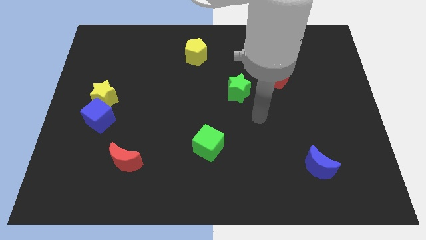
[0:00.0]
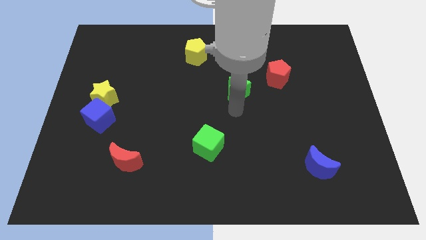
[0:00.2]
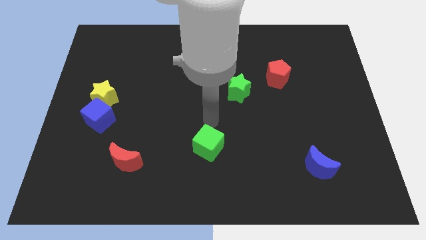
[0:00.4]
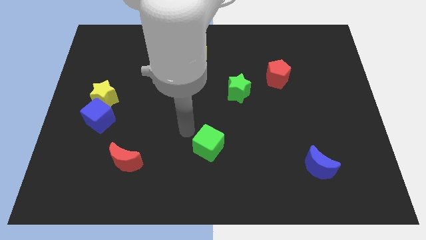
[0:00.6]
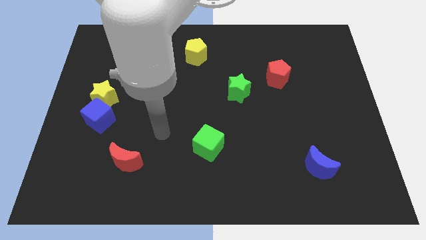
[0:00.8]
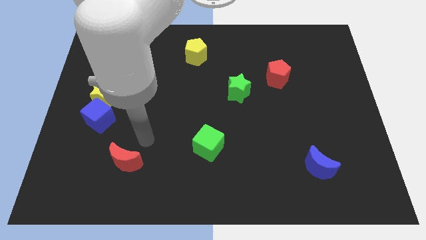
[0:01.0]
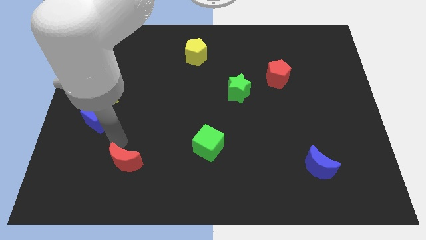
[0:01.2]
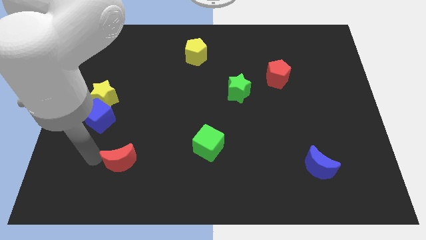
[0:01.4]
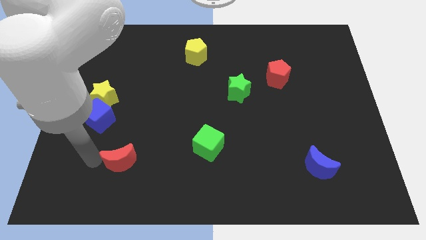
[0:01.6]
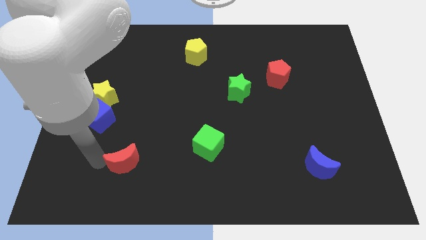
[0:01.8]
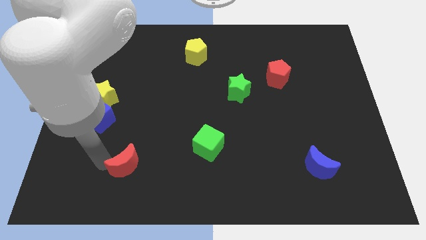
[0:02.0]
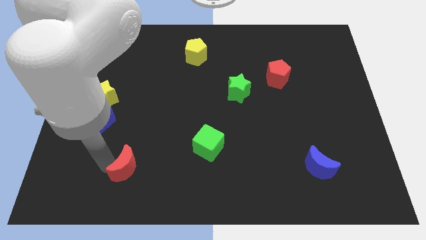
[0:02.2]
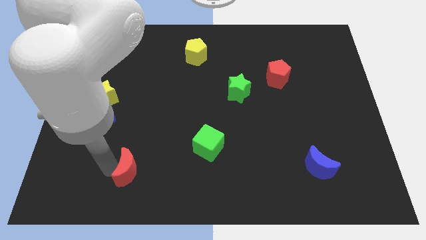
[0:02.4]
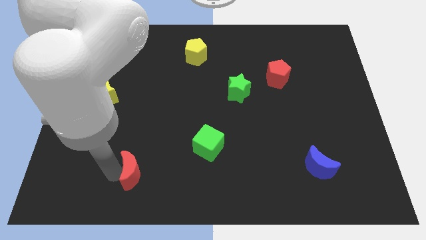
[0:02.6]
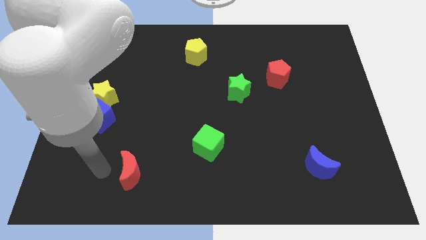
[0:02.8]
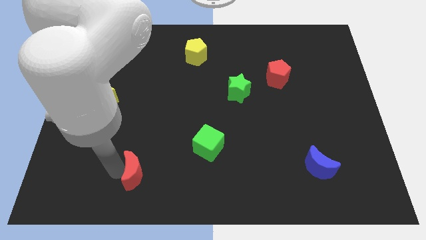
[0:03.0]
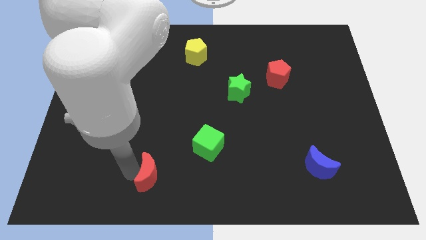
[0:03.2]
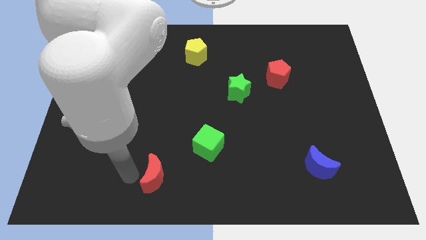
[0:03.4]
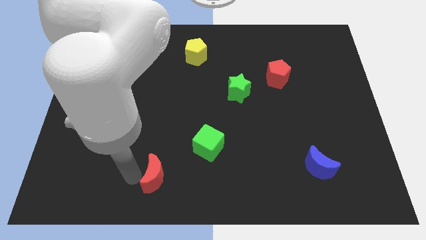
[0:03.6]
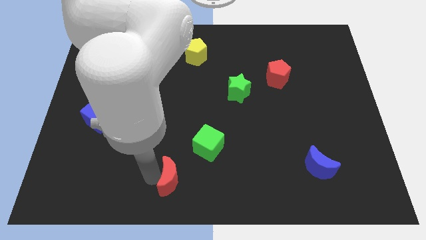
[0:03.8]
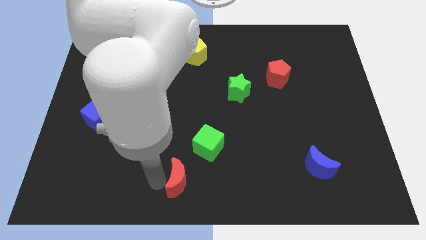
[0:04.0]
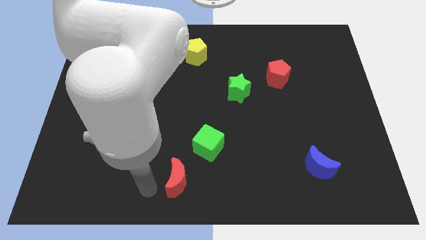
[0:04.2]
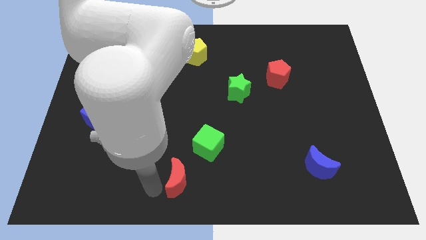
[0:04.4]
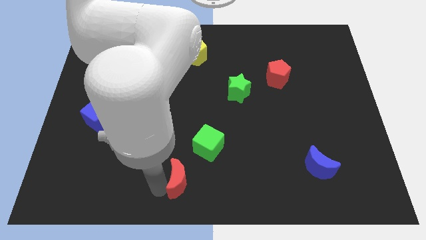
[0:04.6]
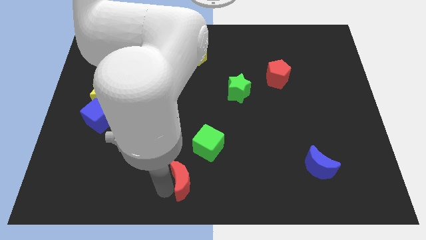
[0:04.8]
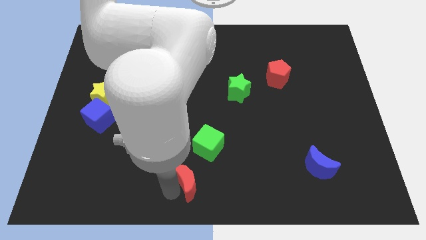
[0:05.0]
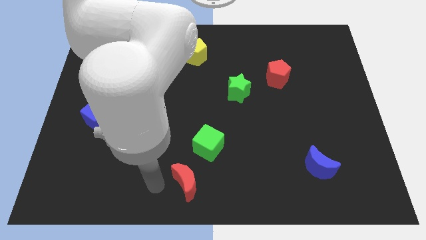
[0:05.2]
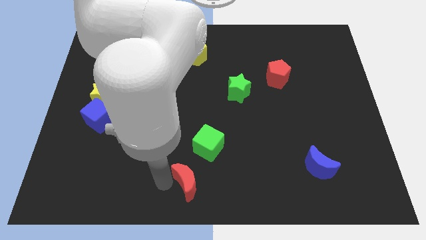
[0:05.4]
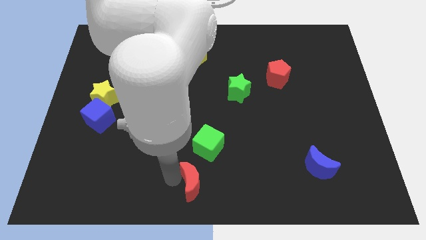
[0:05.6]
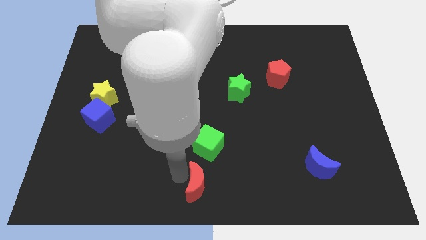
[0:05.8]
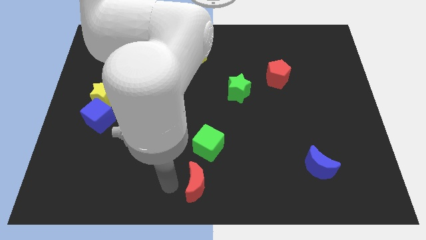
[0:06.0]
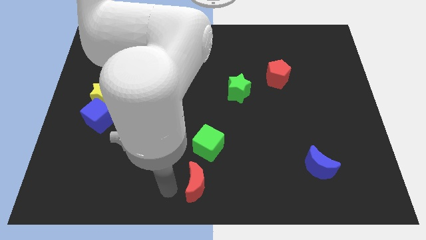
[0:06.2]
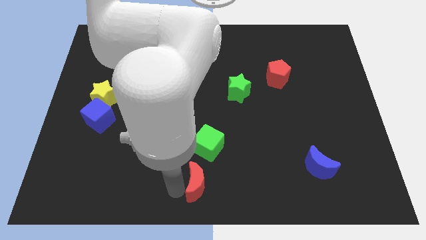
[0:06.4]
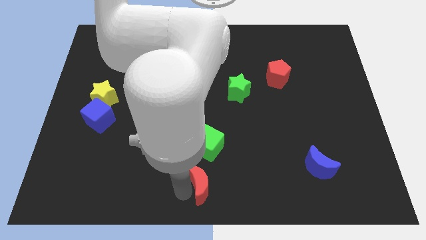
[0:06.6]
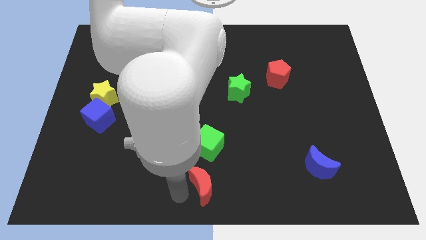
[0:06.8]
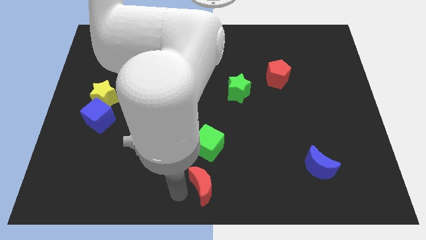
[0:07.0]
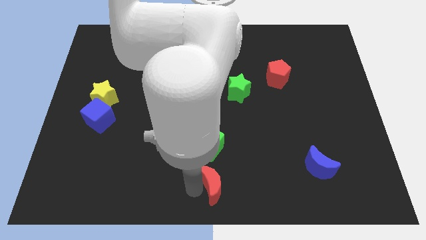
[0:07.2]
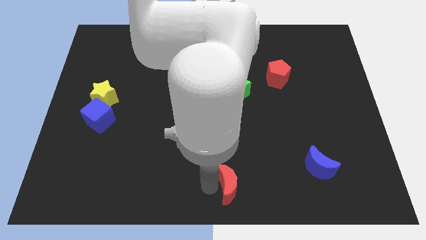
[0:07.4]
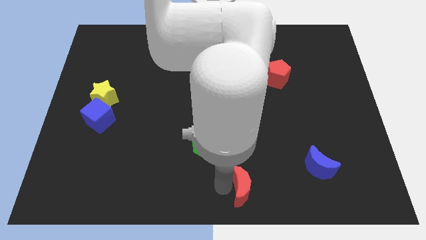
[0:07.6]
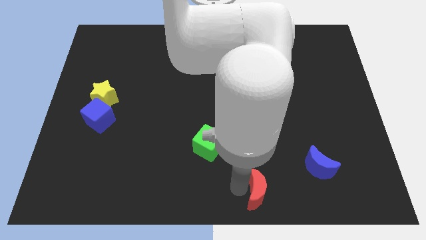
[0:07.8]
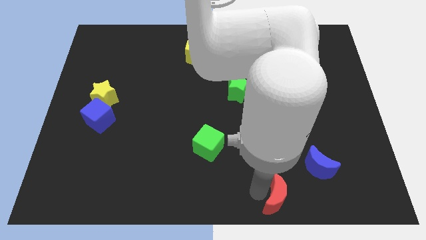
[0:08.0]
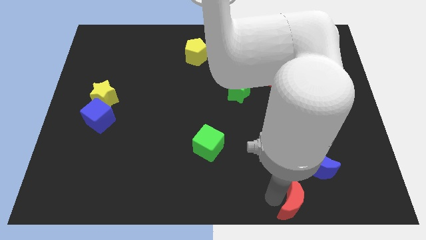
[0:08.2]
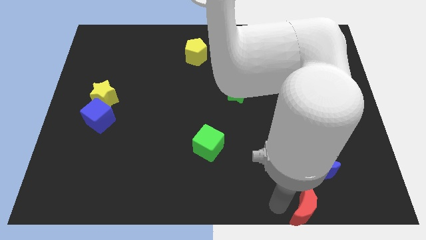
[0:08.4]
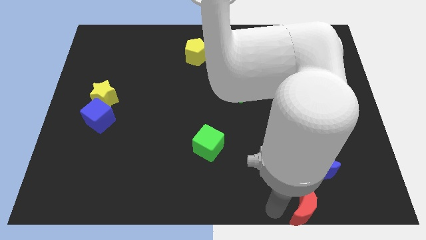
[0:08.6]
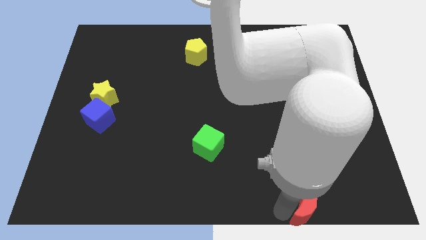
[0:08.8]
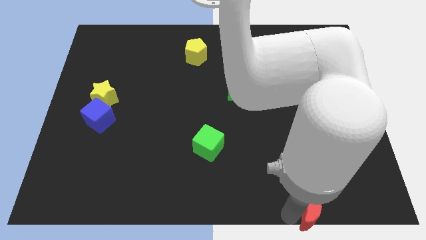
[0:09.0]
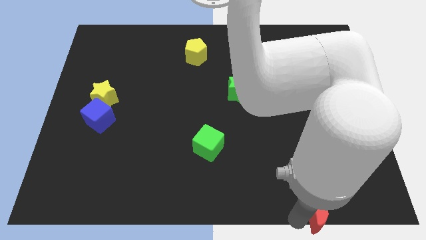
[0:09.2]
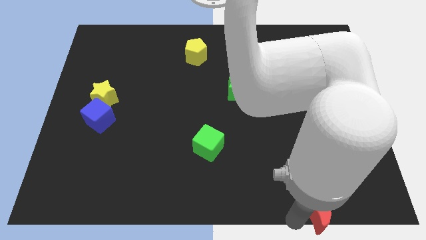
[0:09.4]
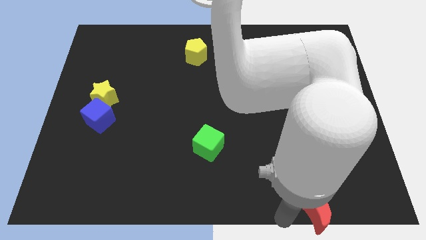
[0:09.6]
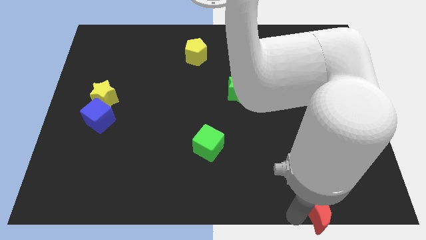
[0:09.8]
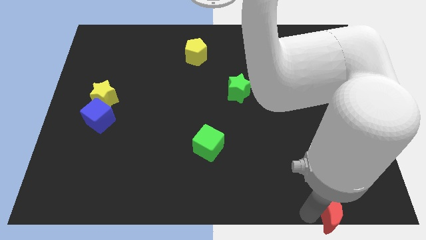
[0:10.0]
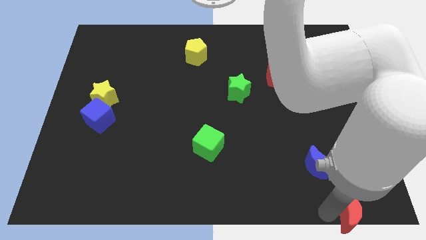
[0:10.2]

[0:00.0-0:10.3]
push the red moon to the bottom right of the board

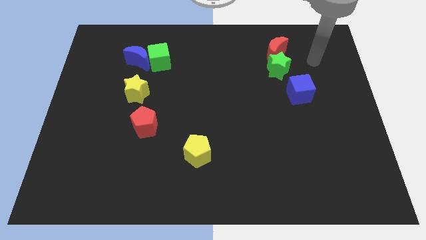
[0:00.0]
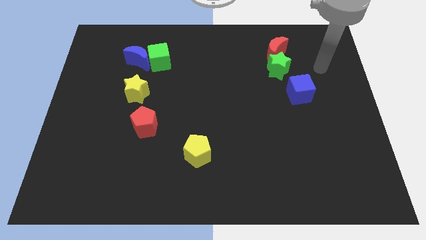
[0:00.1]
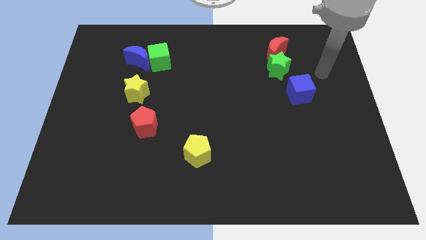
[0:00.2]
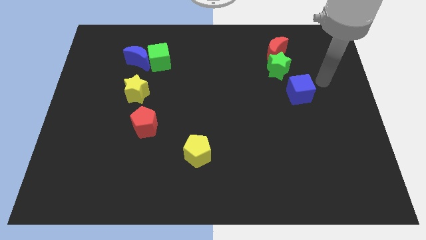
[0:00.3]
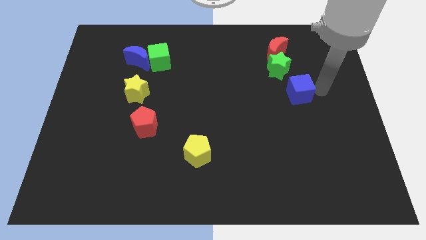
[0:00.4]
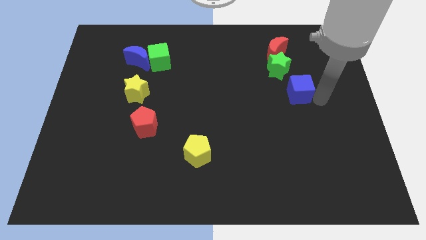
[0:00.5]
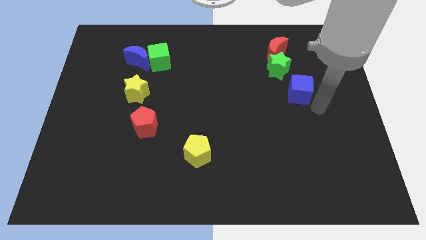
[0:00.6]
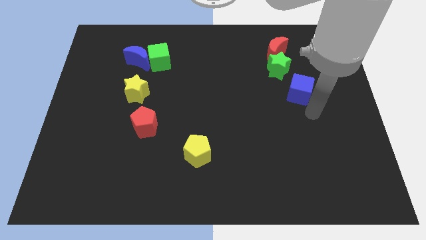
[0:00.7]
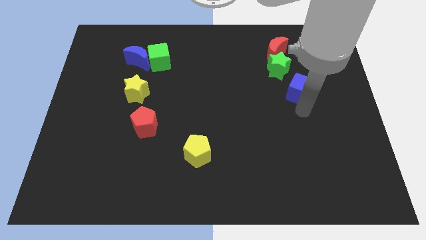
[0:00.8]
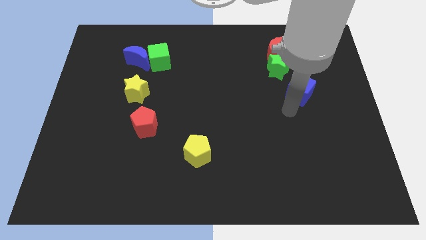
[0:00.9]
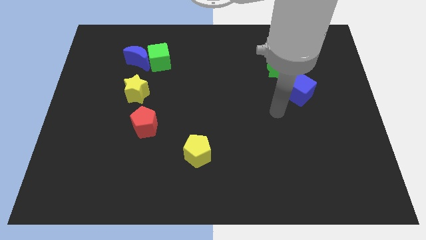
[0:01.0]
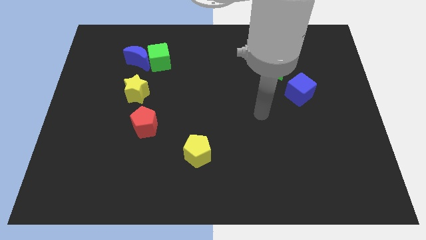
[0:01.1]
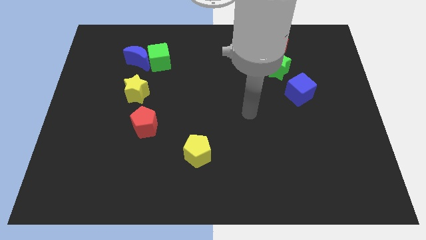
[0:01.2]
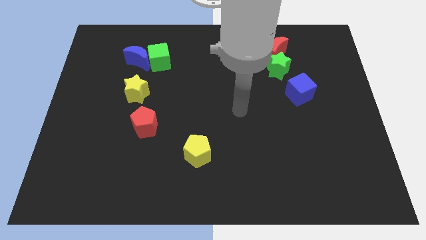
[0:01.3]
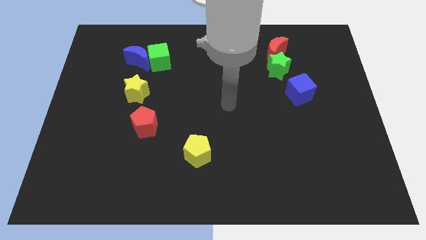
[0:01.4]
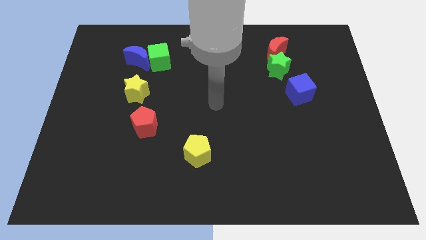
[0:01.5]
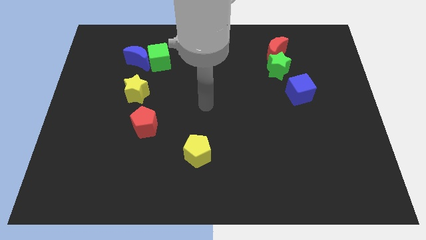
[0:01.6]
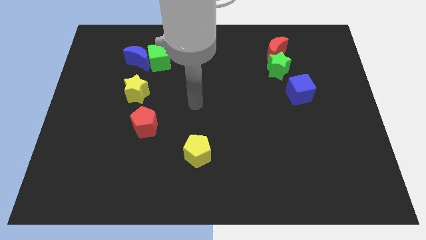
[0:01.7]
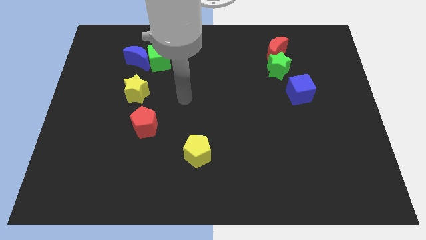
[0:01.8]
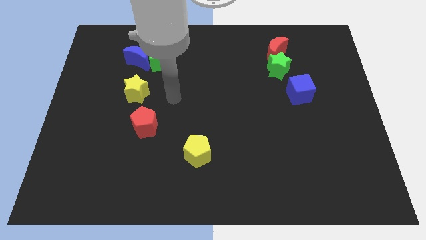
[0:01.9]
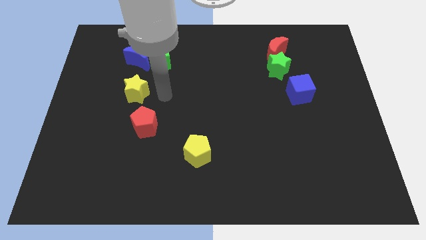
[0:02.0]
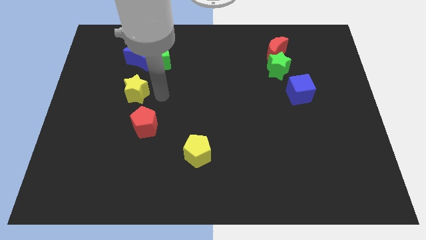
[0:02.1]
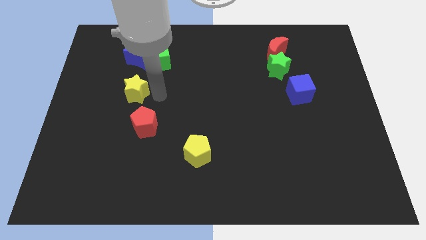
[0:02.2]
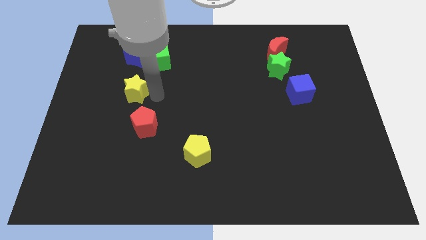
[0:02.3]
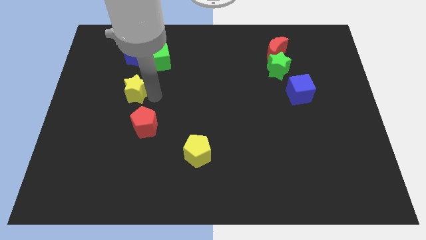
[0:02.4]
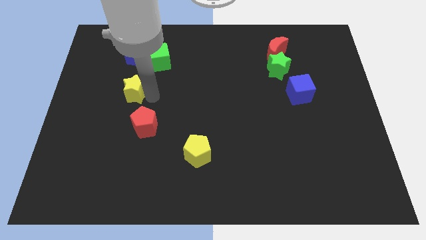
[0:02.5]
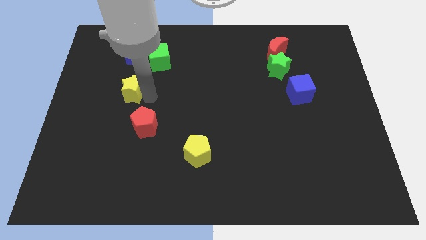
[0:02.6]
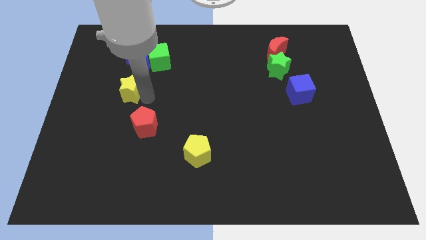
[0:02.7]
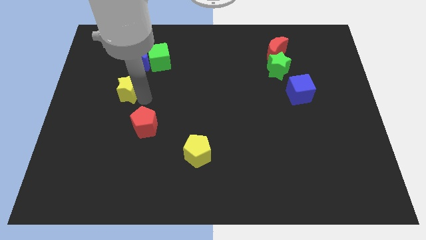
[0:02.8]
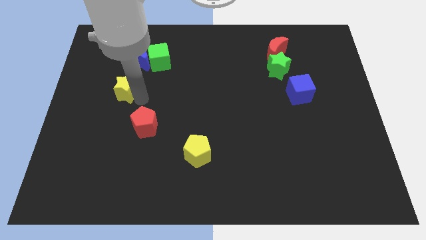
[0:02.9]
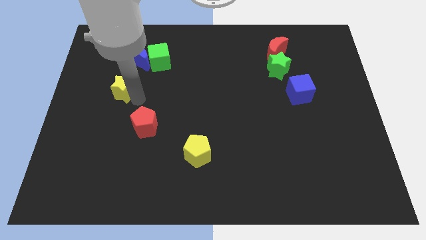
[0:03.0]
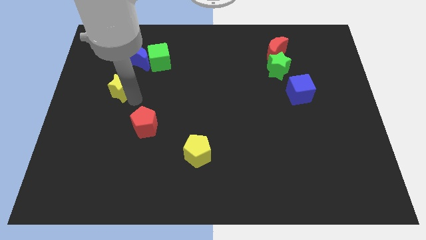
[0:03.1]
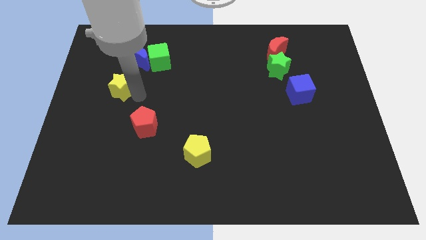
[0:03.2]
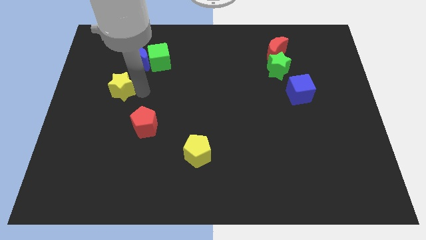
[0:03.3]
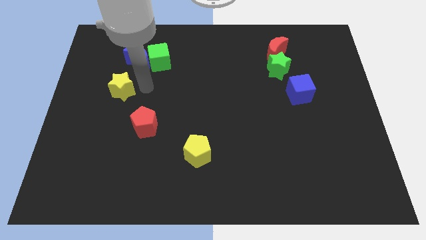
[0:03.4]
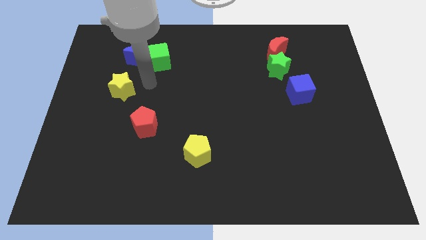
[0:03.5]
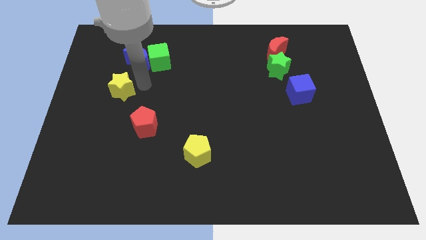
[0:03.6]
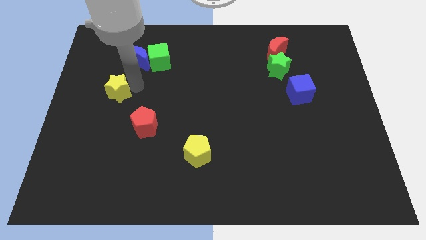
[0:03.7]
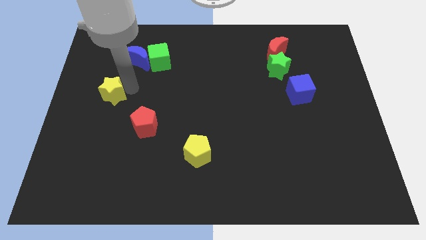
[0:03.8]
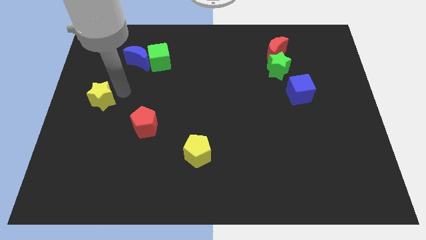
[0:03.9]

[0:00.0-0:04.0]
put the yellow star to the left side of the board
